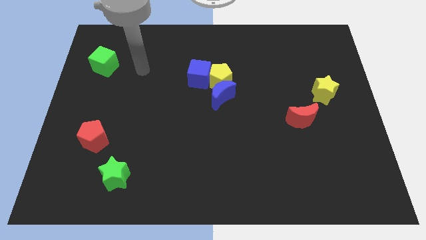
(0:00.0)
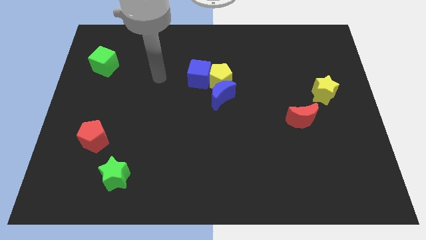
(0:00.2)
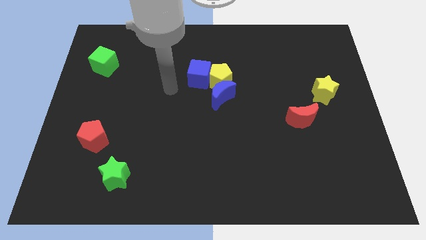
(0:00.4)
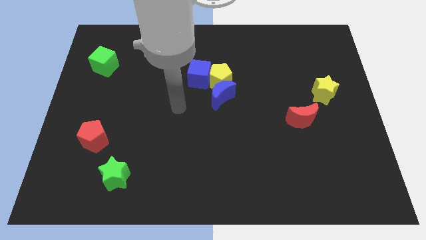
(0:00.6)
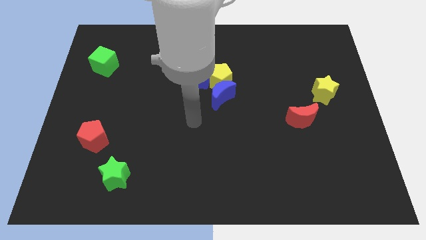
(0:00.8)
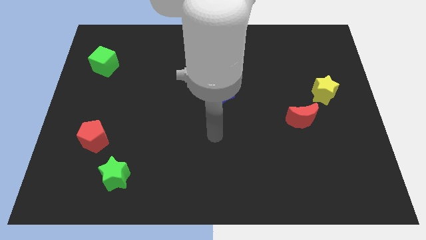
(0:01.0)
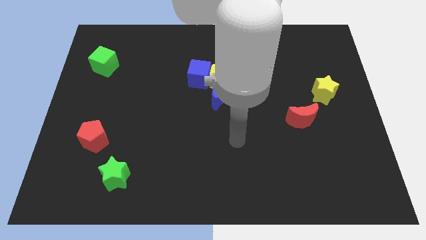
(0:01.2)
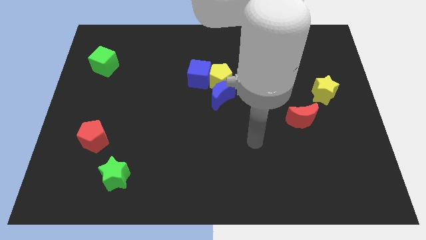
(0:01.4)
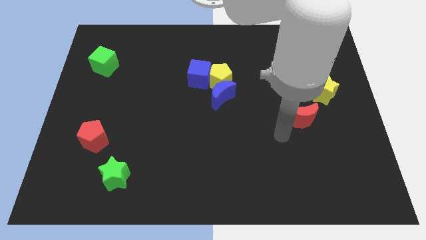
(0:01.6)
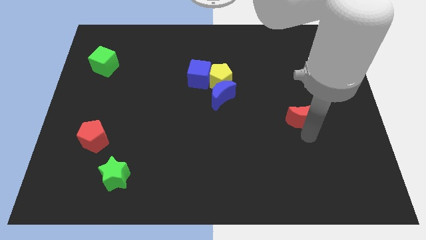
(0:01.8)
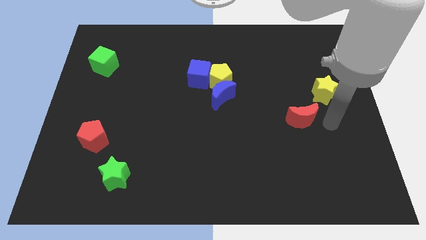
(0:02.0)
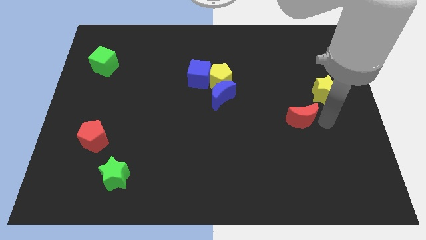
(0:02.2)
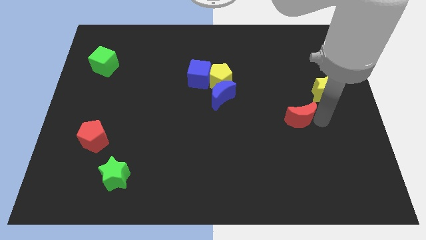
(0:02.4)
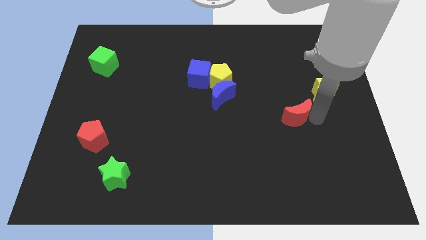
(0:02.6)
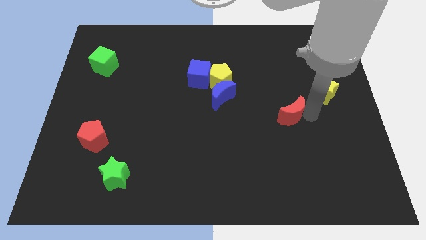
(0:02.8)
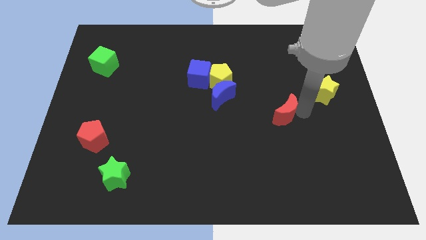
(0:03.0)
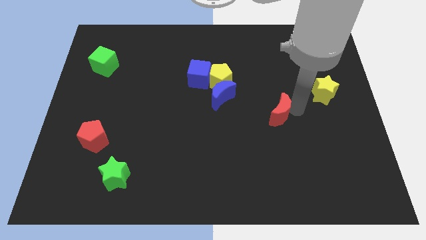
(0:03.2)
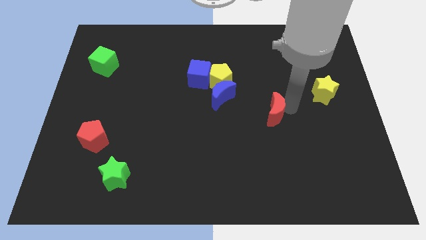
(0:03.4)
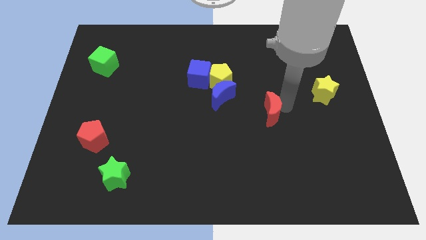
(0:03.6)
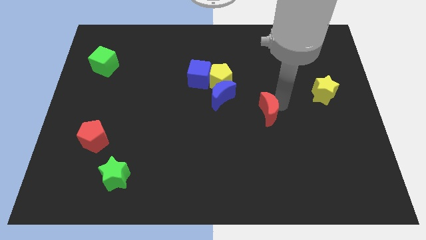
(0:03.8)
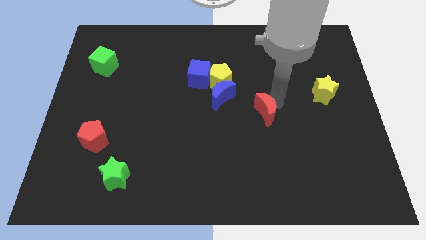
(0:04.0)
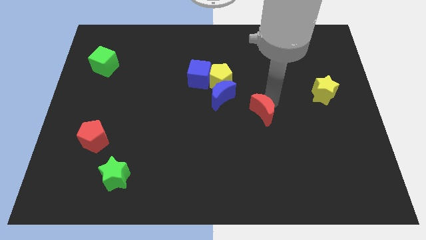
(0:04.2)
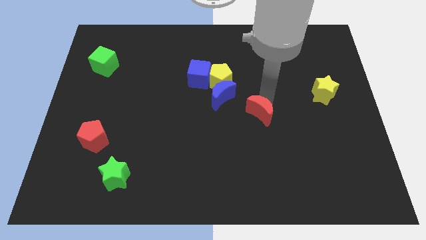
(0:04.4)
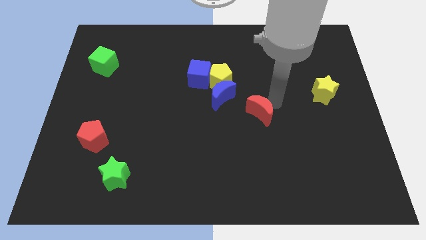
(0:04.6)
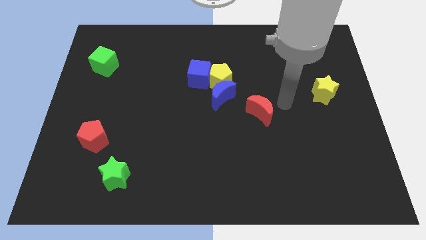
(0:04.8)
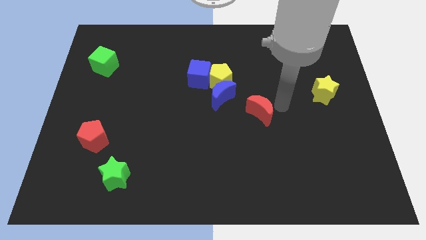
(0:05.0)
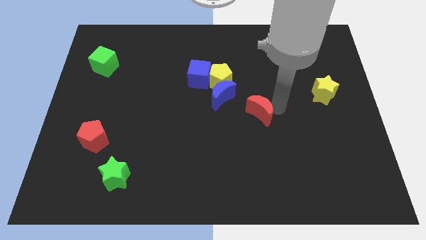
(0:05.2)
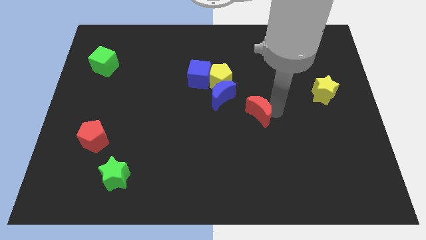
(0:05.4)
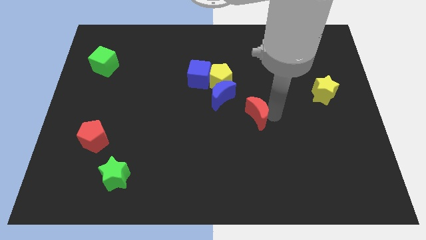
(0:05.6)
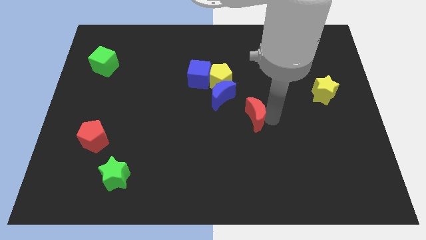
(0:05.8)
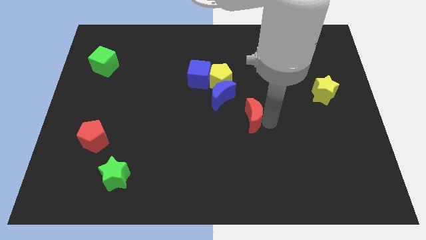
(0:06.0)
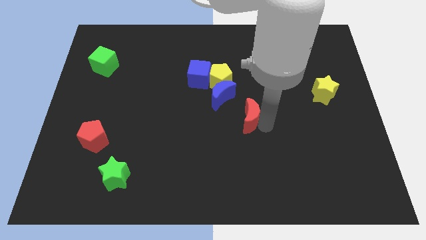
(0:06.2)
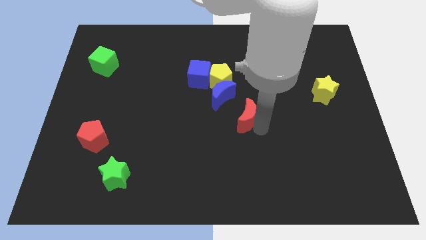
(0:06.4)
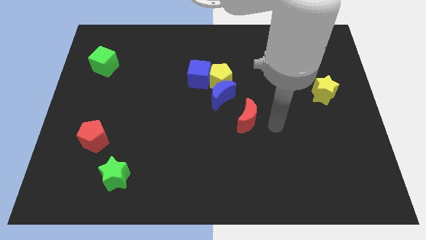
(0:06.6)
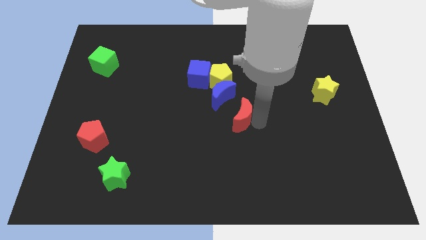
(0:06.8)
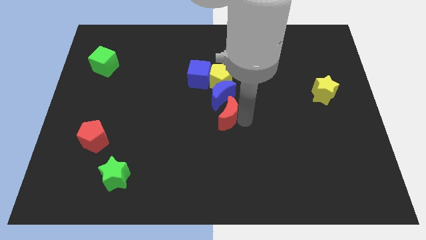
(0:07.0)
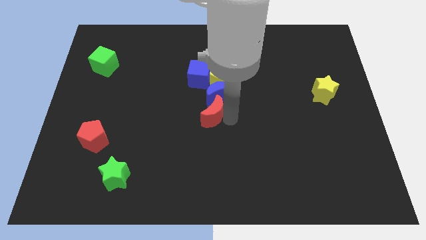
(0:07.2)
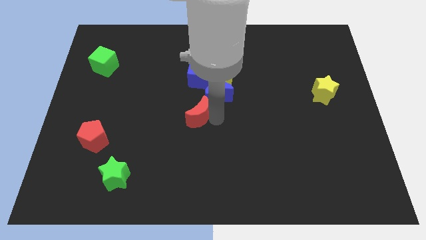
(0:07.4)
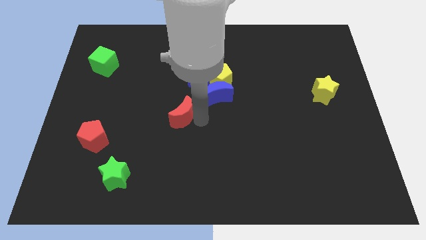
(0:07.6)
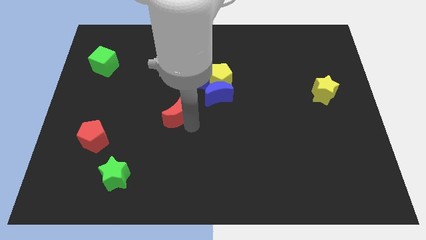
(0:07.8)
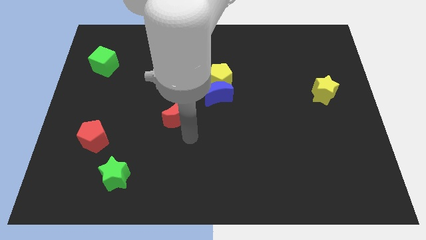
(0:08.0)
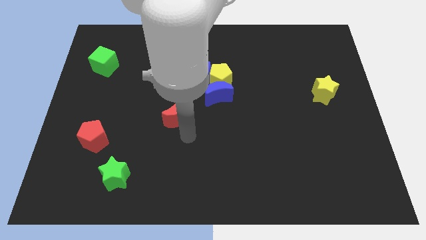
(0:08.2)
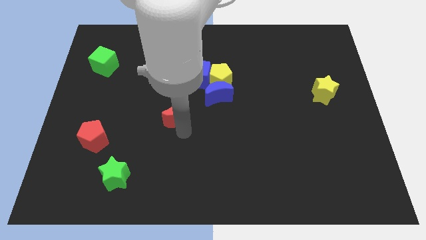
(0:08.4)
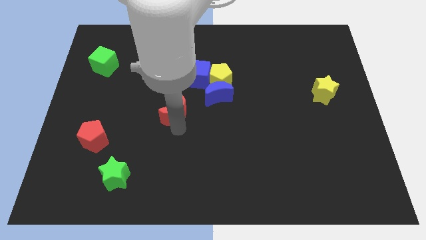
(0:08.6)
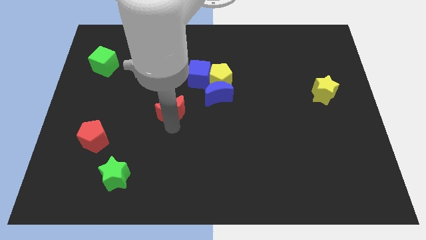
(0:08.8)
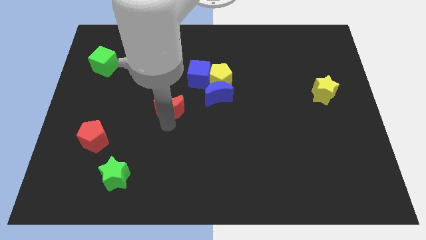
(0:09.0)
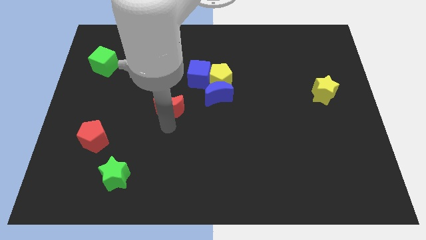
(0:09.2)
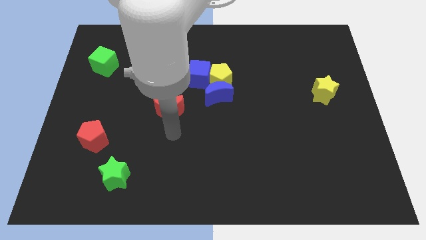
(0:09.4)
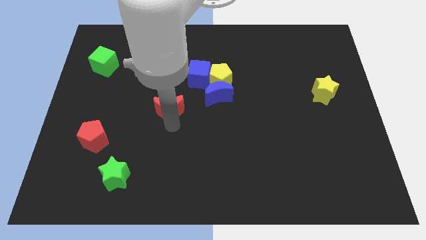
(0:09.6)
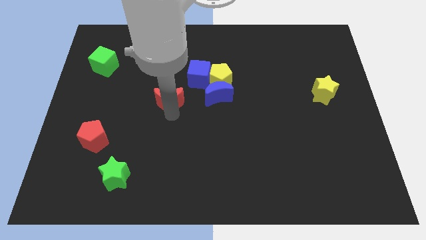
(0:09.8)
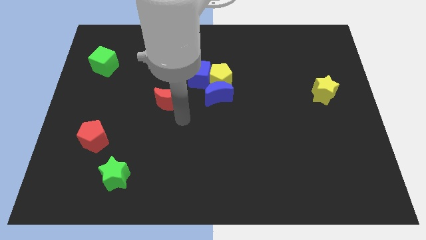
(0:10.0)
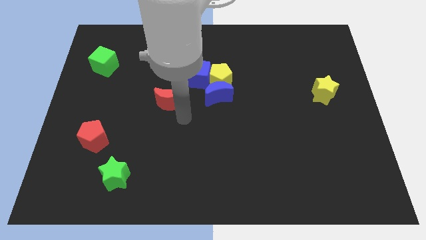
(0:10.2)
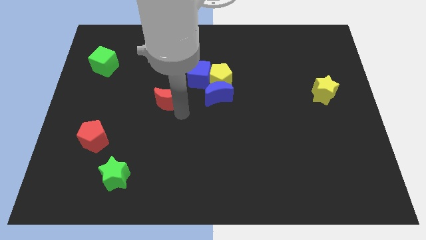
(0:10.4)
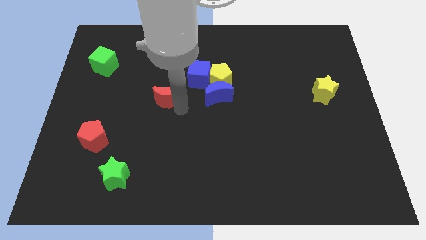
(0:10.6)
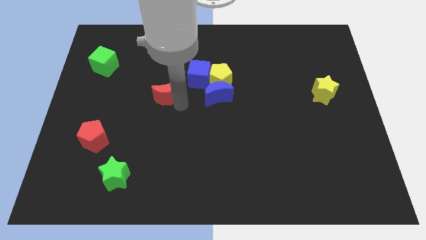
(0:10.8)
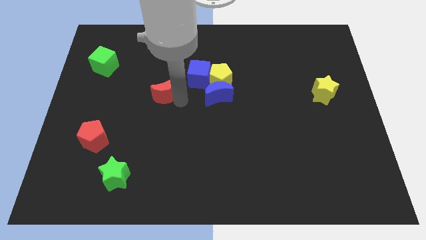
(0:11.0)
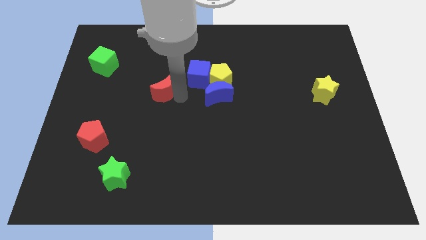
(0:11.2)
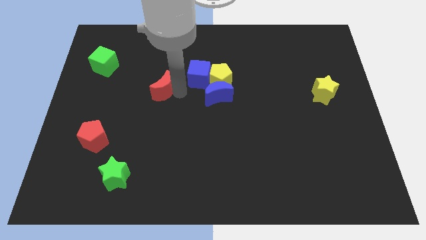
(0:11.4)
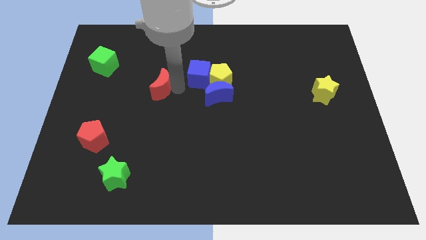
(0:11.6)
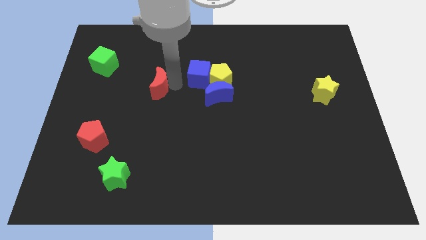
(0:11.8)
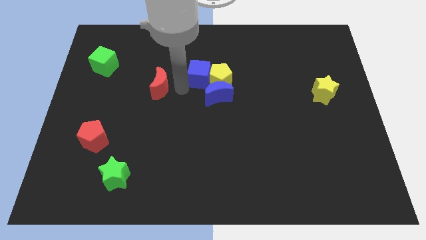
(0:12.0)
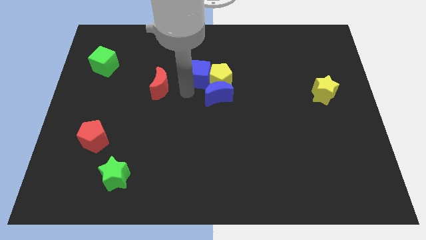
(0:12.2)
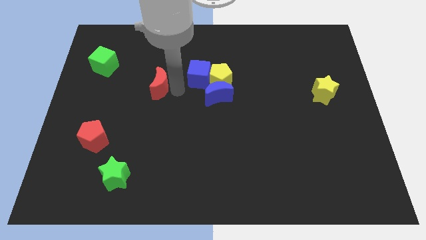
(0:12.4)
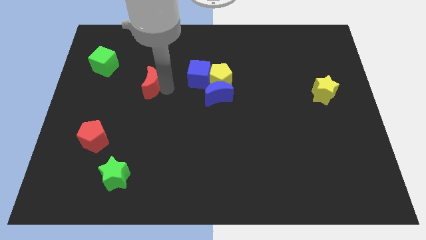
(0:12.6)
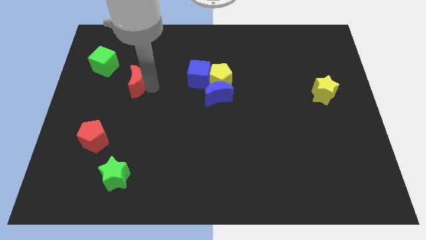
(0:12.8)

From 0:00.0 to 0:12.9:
push the red moon to the bottom right of the green cube

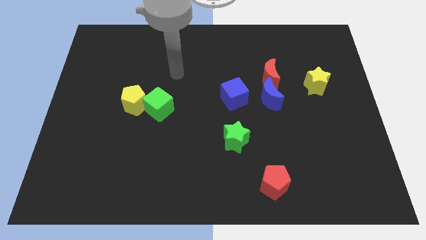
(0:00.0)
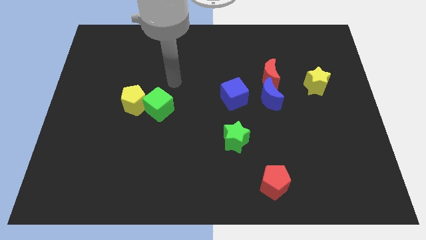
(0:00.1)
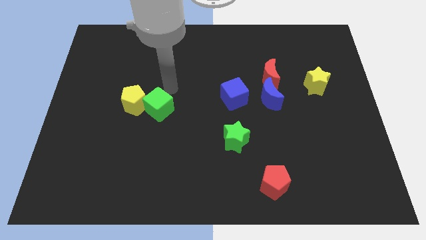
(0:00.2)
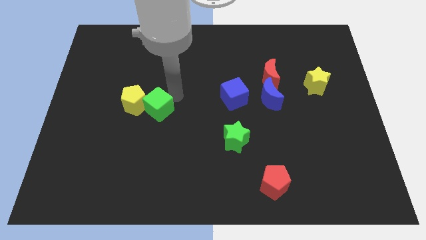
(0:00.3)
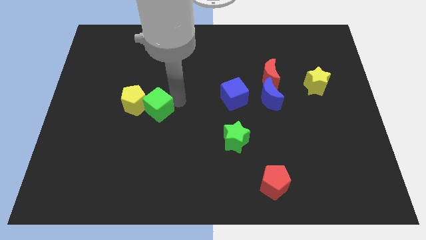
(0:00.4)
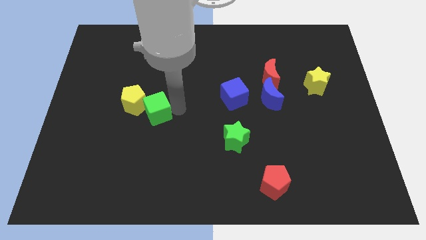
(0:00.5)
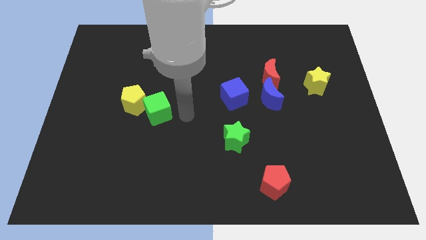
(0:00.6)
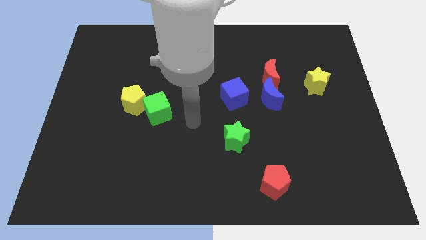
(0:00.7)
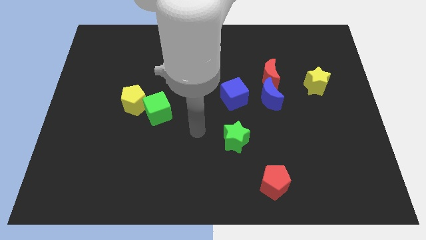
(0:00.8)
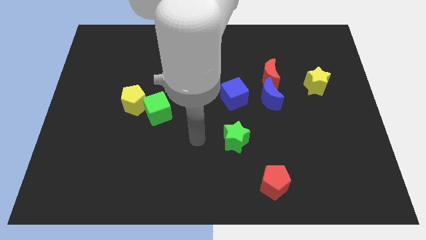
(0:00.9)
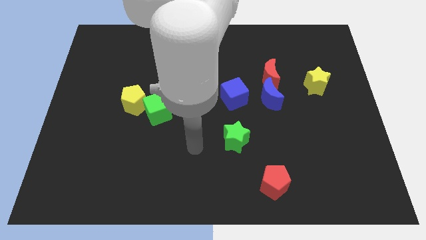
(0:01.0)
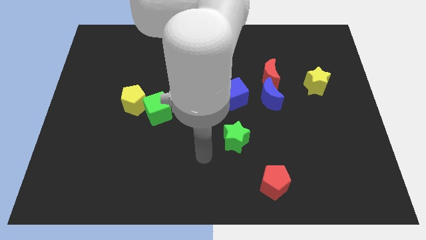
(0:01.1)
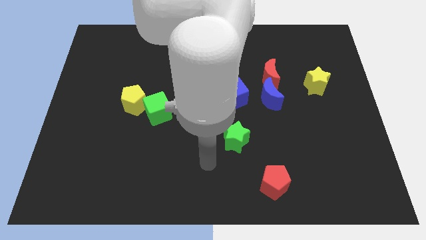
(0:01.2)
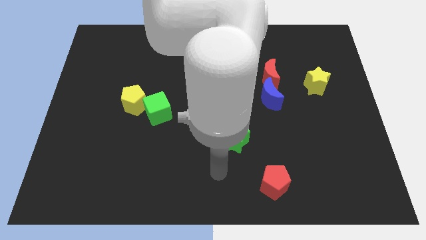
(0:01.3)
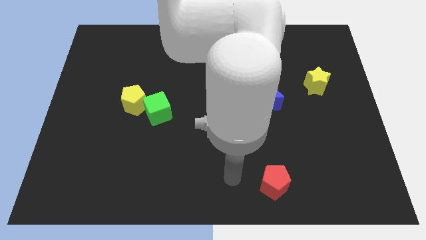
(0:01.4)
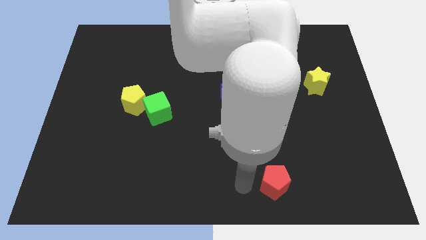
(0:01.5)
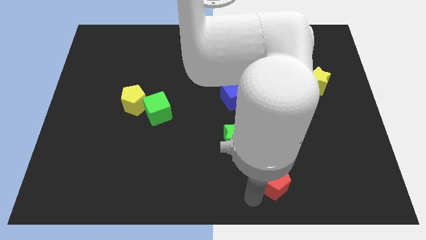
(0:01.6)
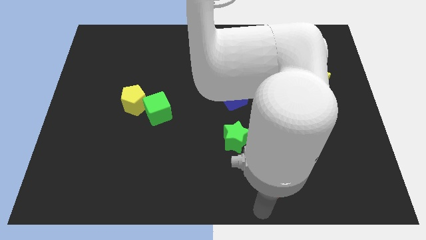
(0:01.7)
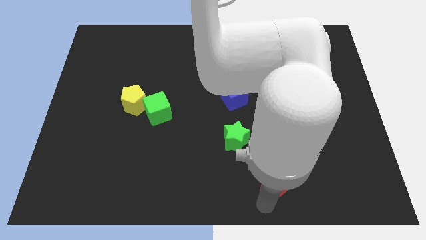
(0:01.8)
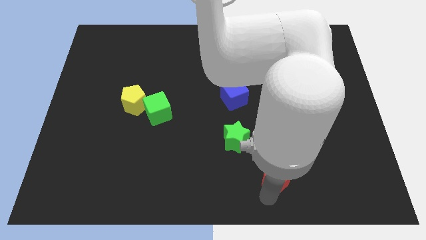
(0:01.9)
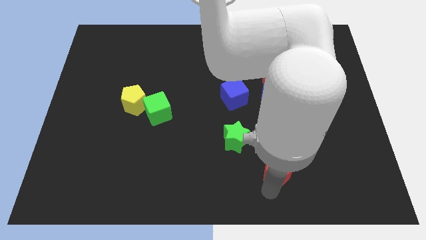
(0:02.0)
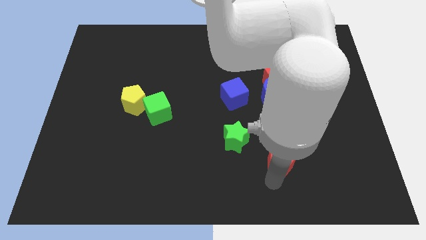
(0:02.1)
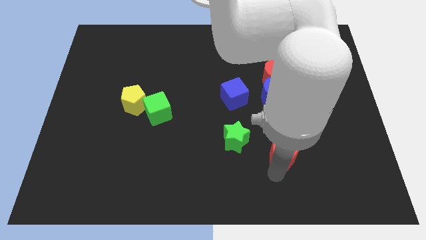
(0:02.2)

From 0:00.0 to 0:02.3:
push the red pentagon right of the green star
